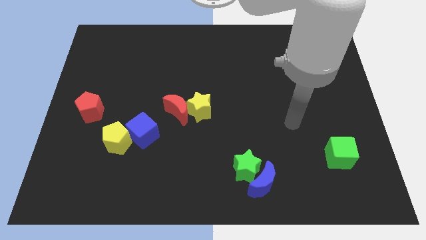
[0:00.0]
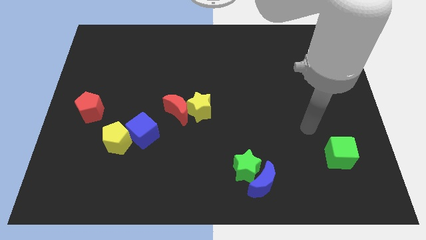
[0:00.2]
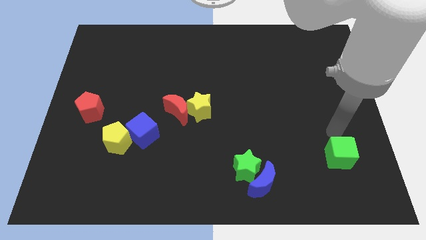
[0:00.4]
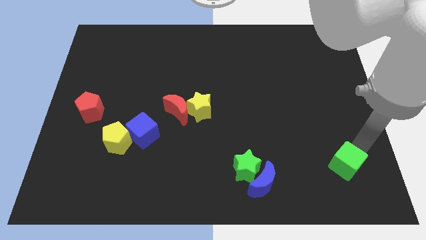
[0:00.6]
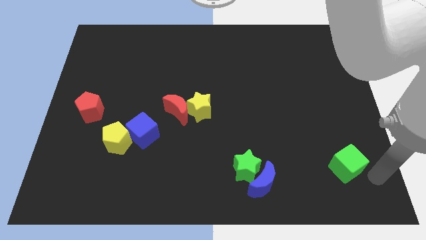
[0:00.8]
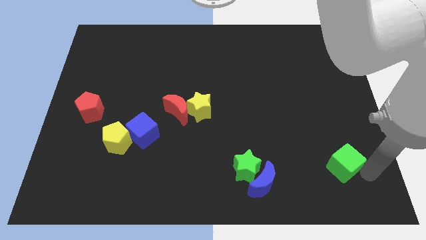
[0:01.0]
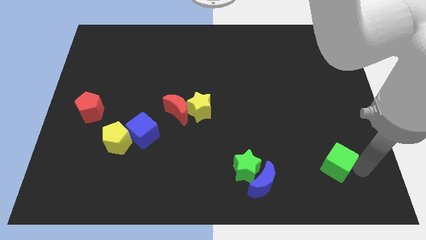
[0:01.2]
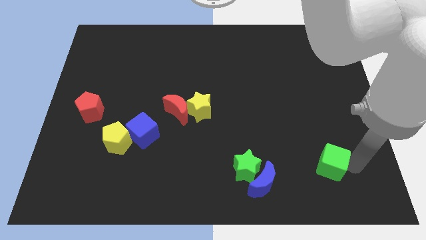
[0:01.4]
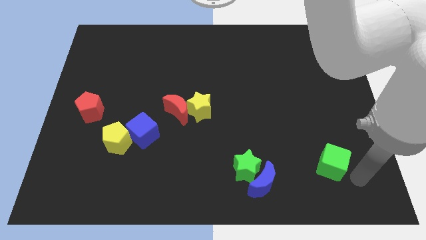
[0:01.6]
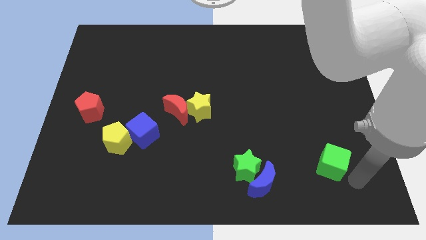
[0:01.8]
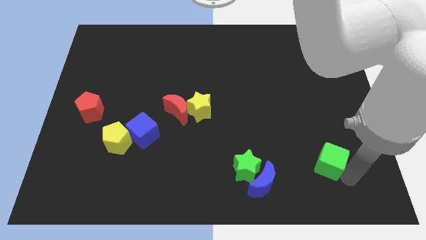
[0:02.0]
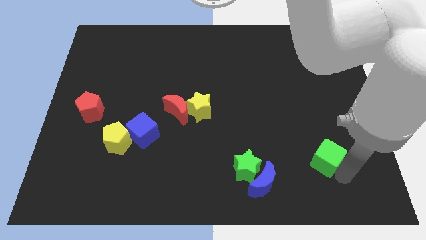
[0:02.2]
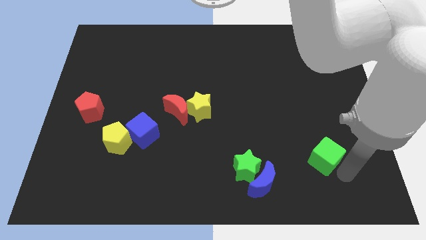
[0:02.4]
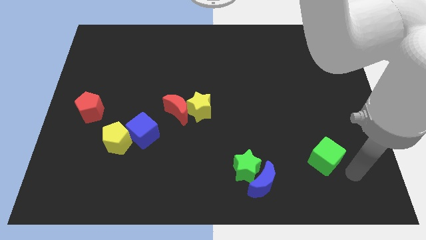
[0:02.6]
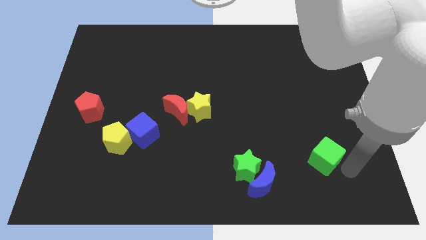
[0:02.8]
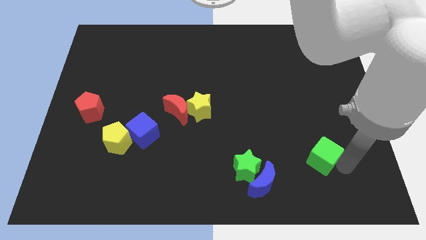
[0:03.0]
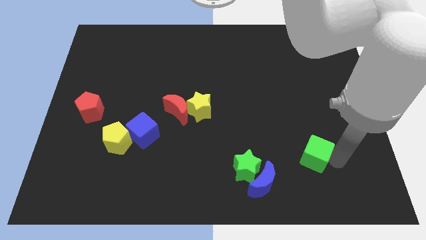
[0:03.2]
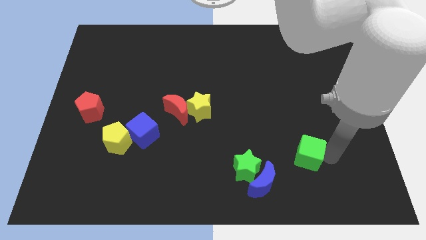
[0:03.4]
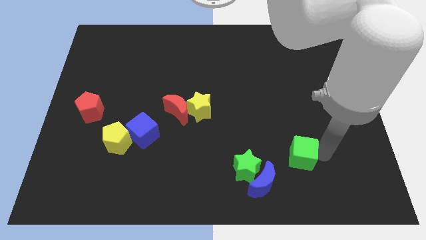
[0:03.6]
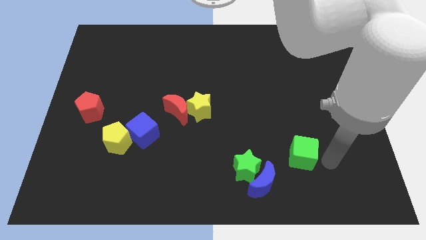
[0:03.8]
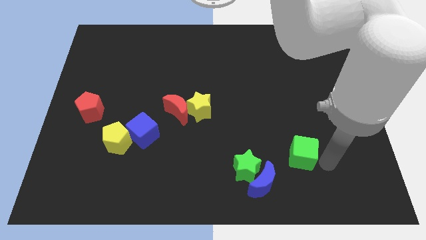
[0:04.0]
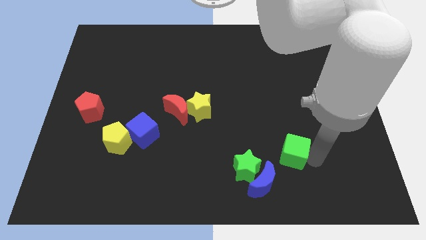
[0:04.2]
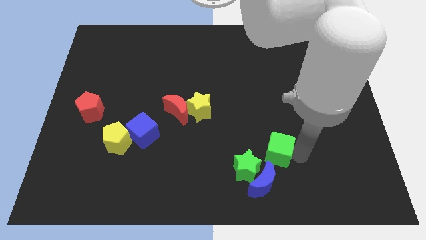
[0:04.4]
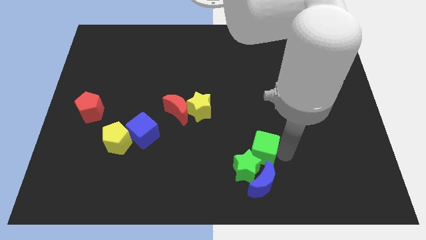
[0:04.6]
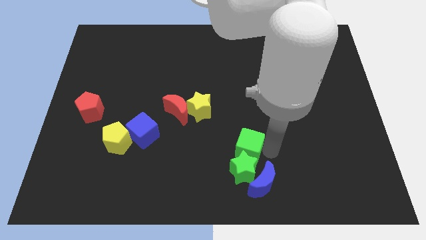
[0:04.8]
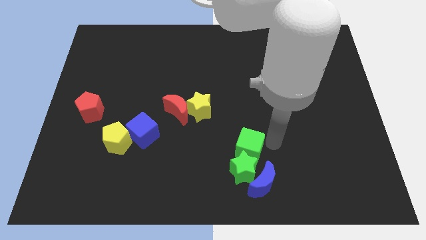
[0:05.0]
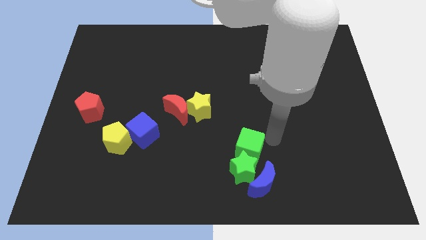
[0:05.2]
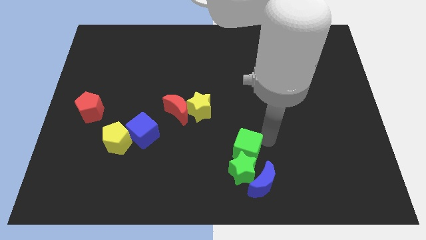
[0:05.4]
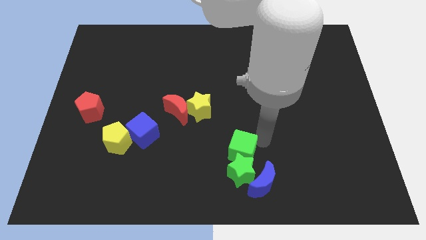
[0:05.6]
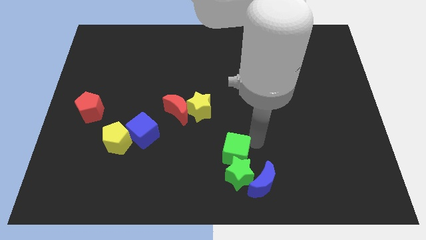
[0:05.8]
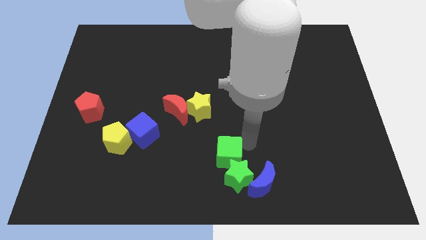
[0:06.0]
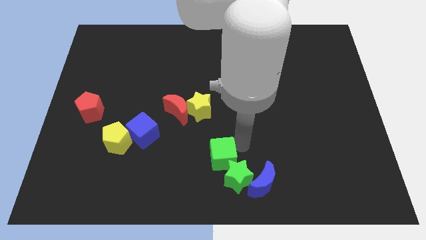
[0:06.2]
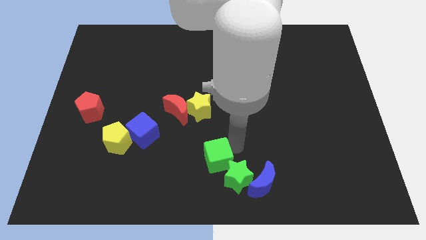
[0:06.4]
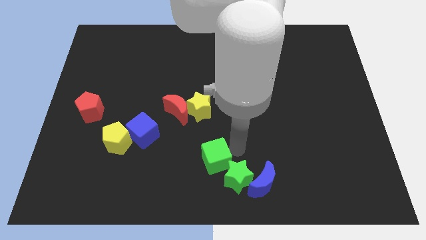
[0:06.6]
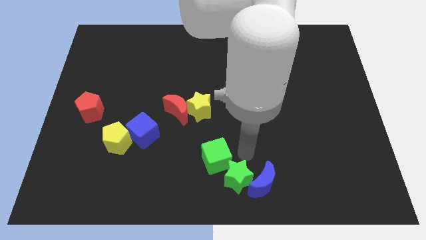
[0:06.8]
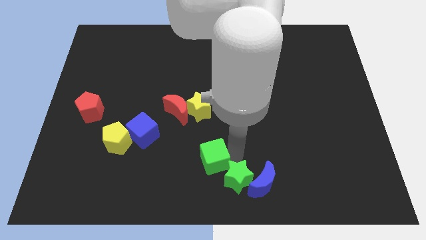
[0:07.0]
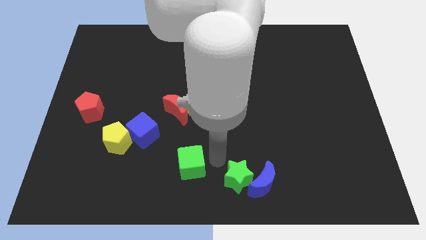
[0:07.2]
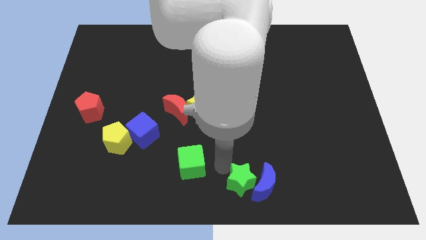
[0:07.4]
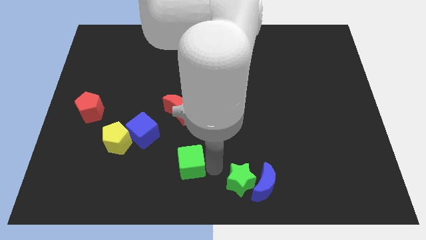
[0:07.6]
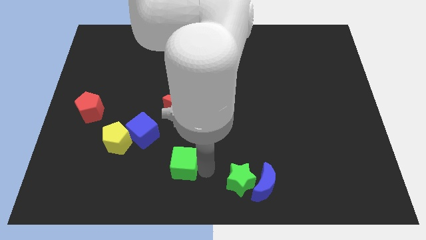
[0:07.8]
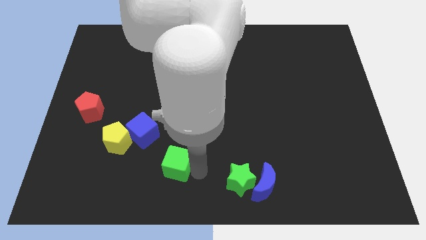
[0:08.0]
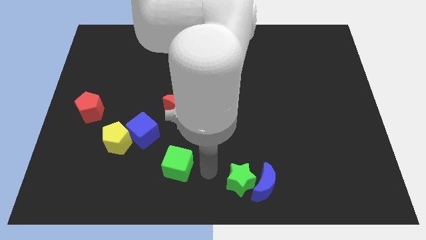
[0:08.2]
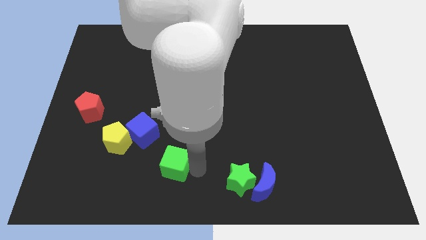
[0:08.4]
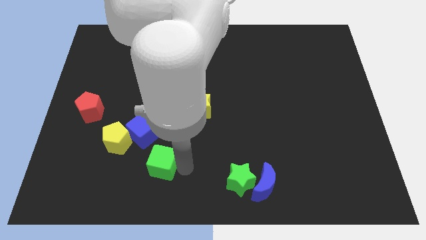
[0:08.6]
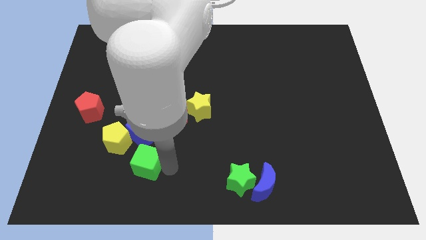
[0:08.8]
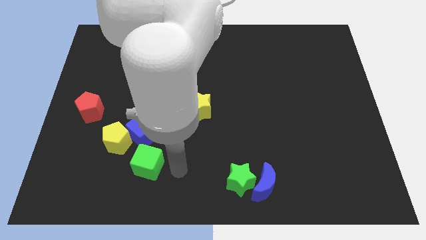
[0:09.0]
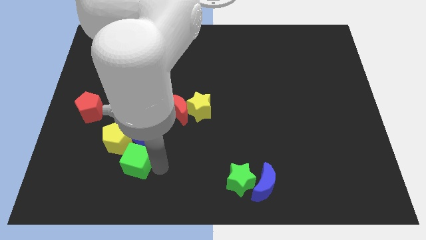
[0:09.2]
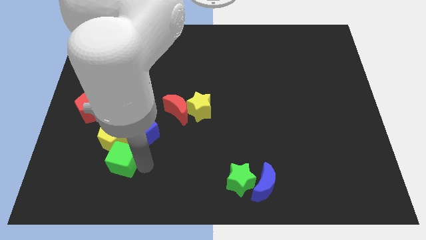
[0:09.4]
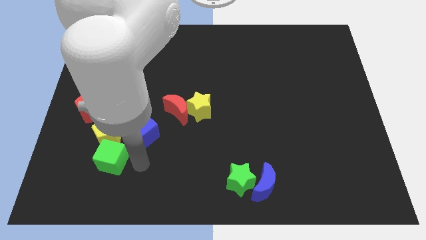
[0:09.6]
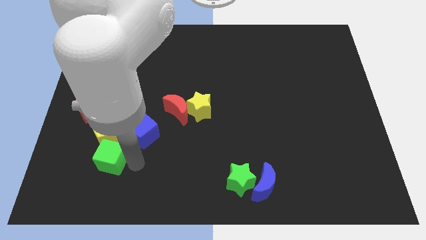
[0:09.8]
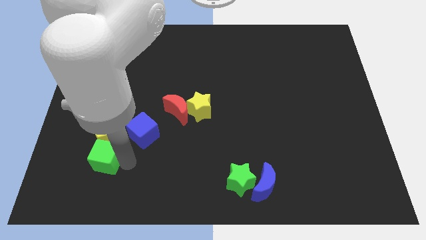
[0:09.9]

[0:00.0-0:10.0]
put the green cube to the bottom left side of the yellow pentagon

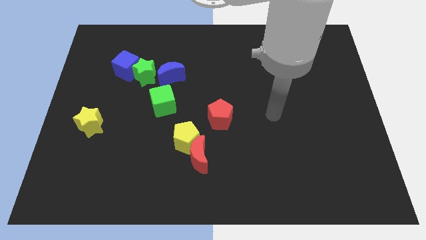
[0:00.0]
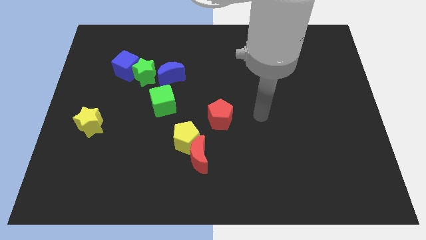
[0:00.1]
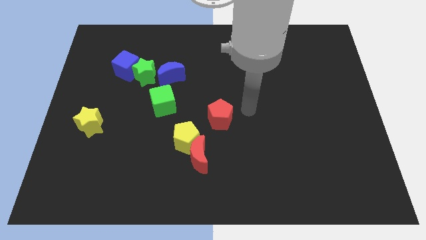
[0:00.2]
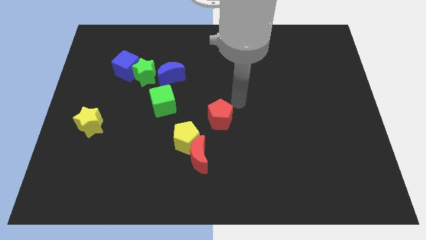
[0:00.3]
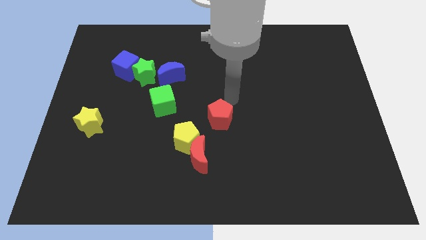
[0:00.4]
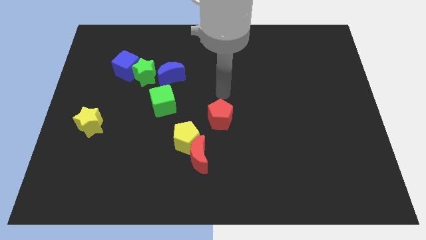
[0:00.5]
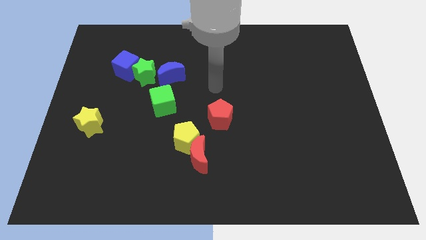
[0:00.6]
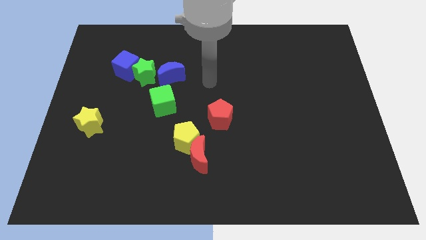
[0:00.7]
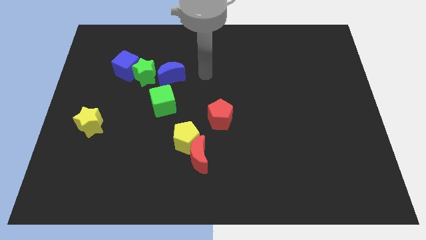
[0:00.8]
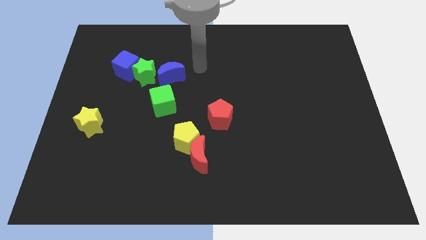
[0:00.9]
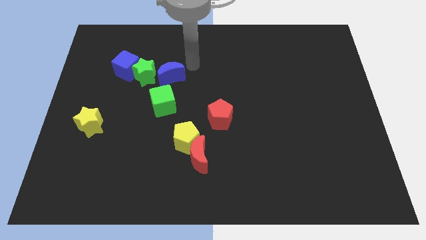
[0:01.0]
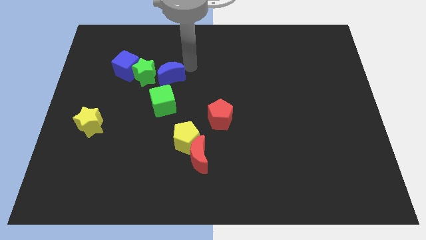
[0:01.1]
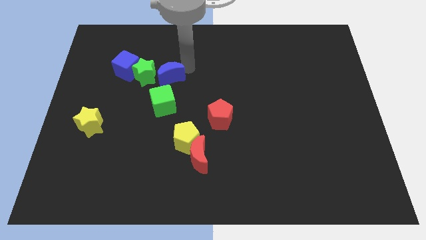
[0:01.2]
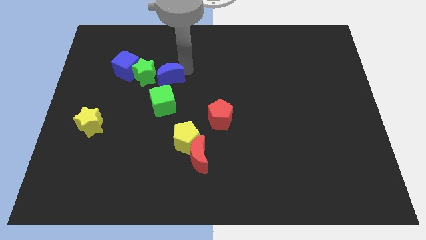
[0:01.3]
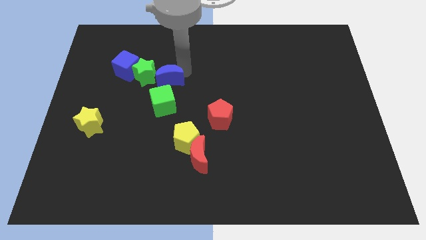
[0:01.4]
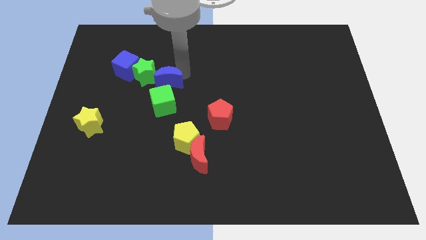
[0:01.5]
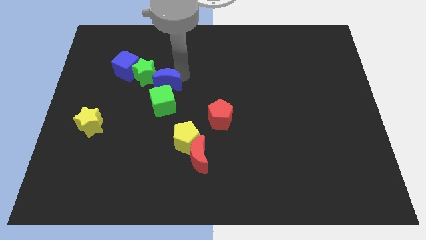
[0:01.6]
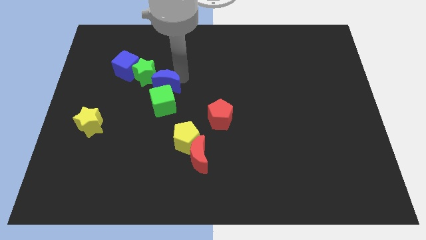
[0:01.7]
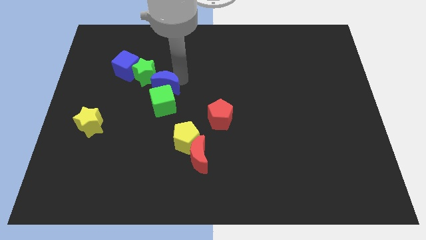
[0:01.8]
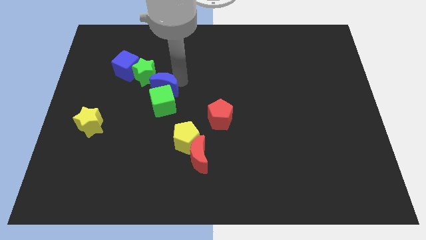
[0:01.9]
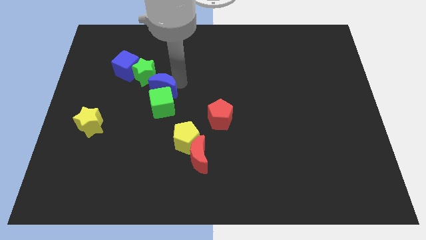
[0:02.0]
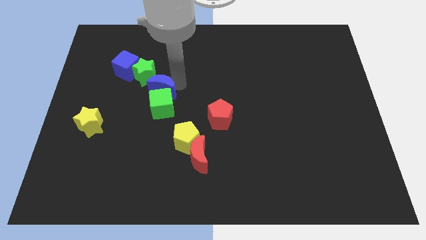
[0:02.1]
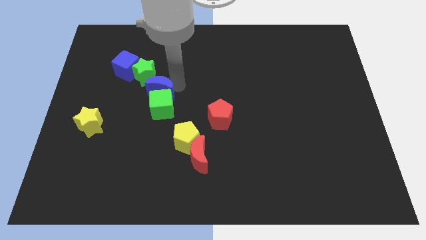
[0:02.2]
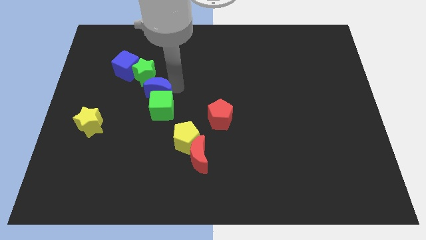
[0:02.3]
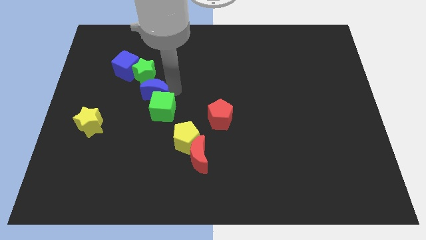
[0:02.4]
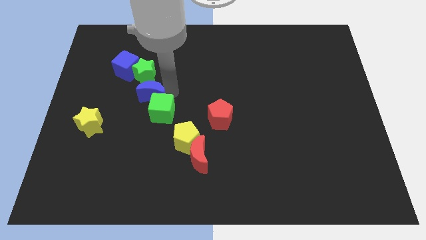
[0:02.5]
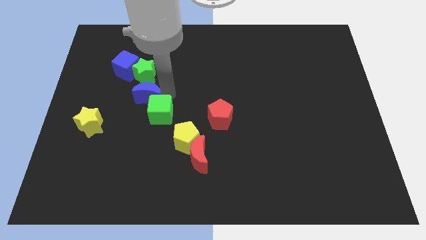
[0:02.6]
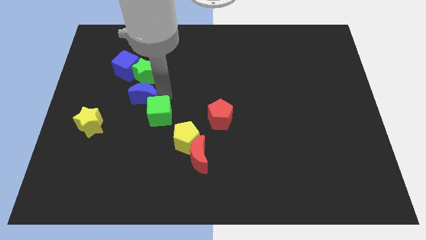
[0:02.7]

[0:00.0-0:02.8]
move the blue moon left of the green cube
